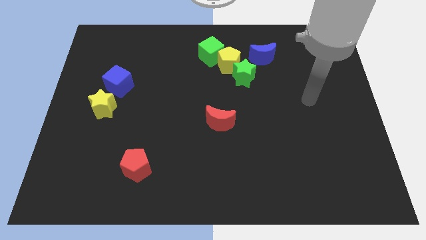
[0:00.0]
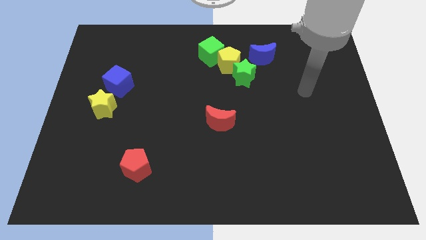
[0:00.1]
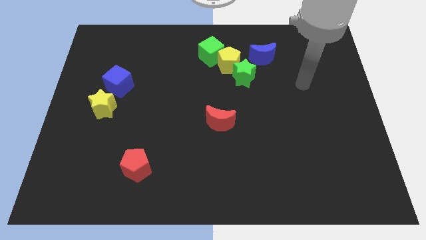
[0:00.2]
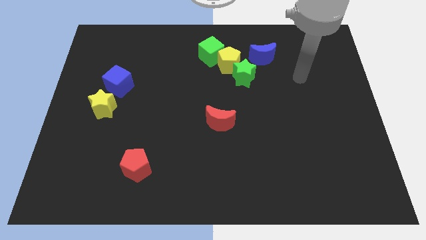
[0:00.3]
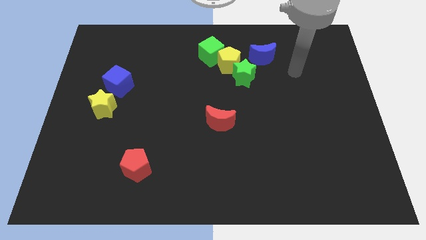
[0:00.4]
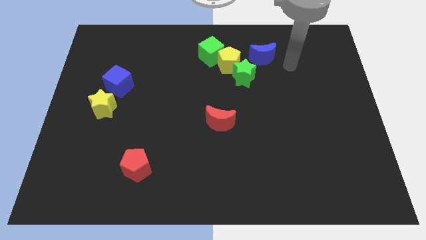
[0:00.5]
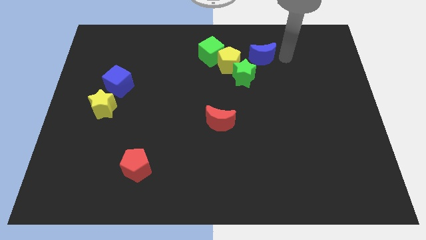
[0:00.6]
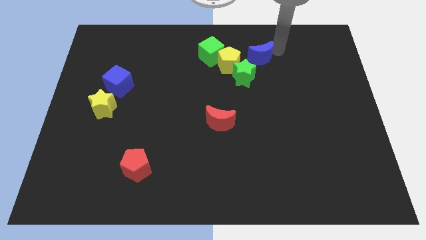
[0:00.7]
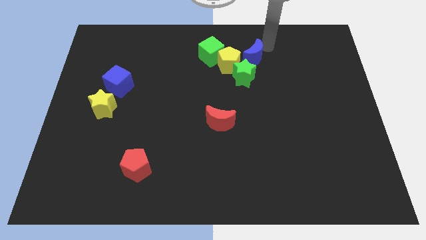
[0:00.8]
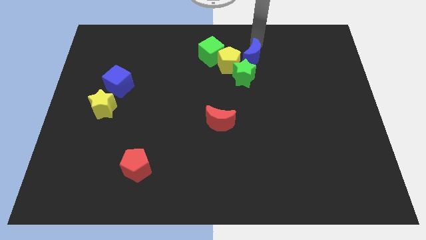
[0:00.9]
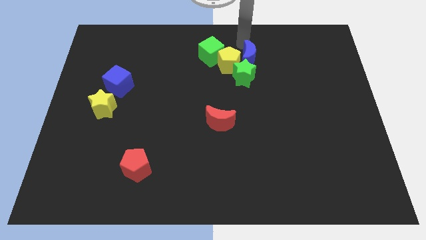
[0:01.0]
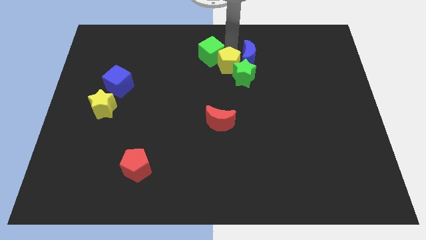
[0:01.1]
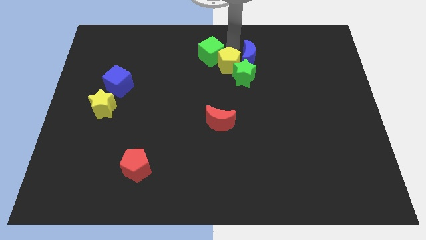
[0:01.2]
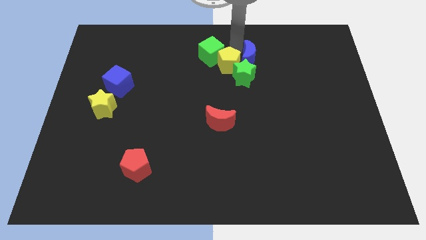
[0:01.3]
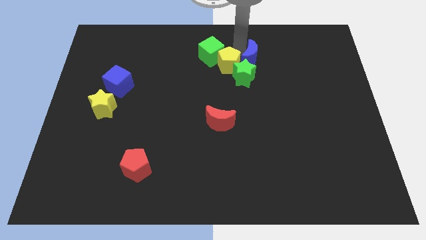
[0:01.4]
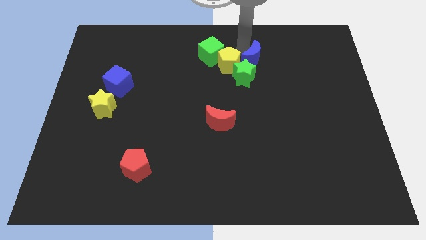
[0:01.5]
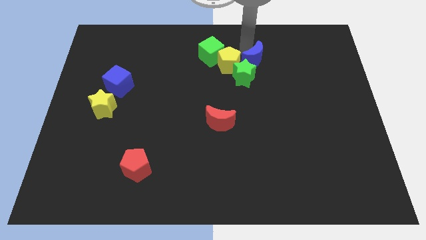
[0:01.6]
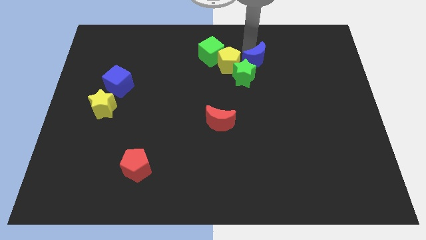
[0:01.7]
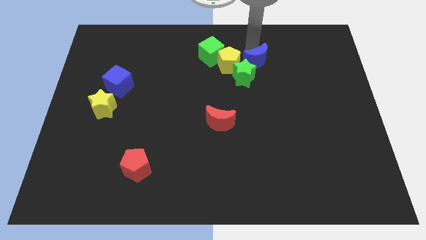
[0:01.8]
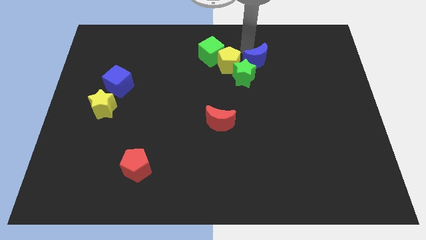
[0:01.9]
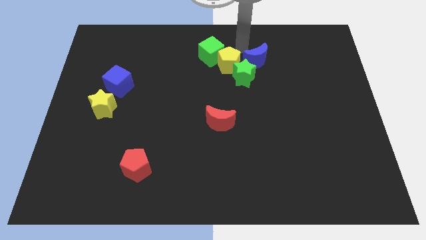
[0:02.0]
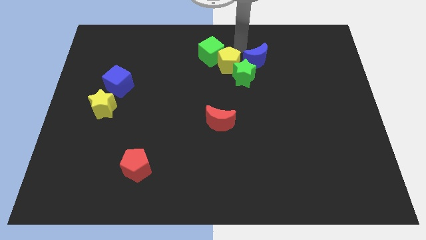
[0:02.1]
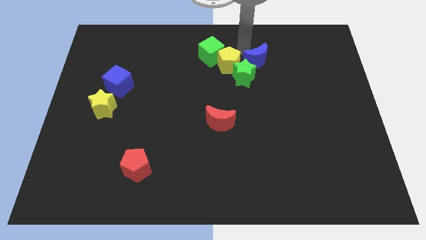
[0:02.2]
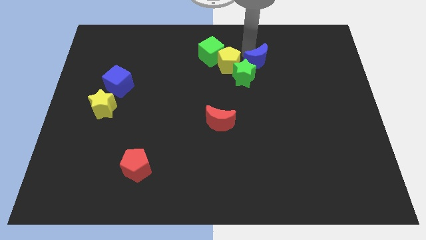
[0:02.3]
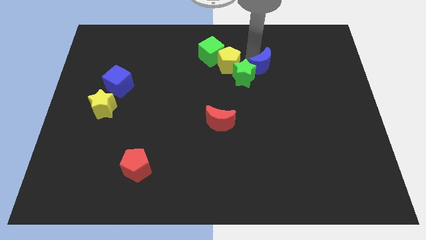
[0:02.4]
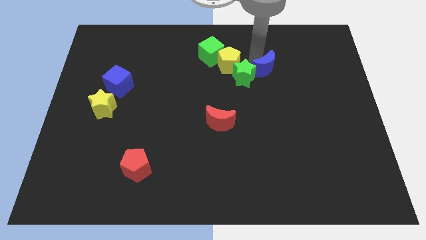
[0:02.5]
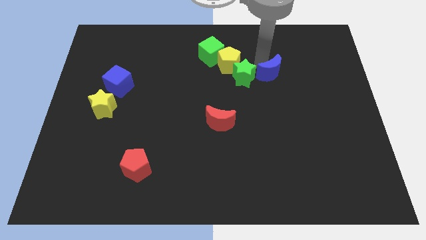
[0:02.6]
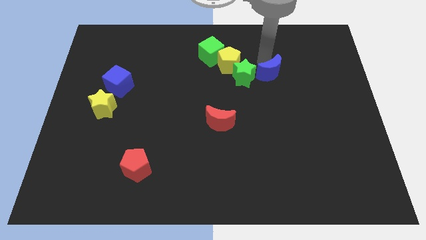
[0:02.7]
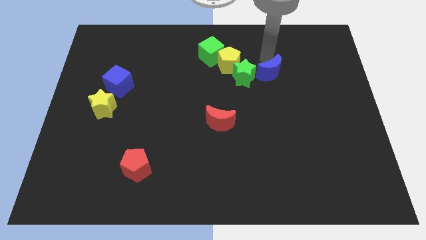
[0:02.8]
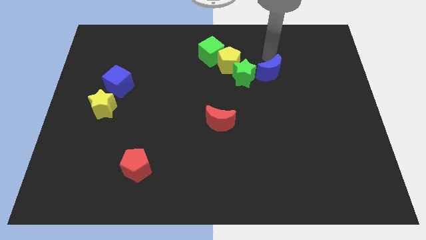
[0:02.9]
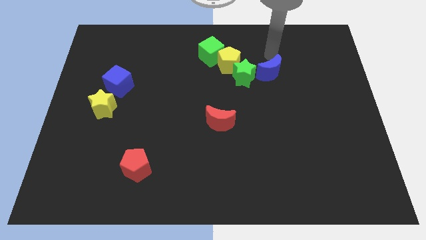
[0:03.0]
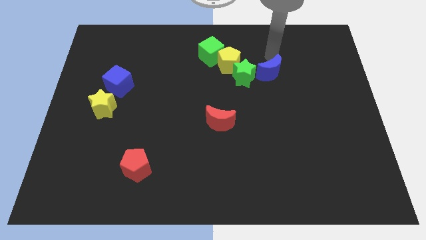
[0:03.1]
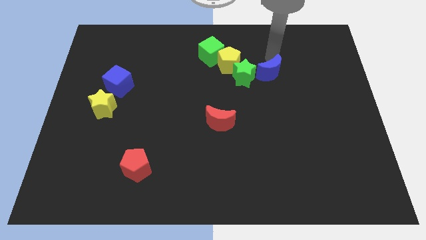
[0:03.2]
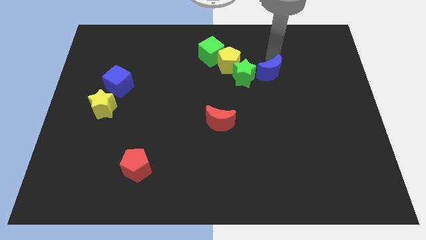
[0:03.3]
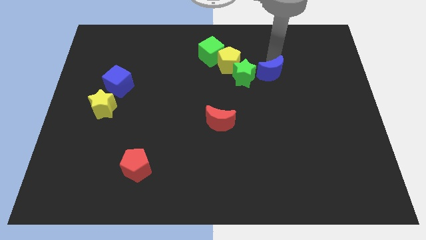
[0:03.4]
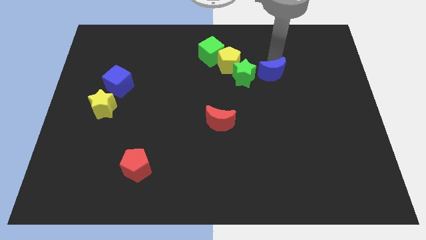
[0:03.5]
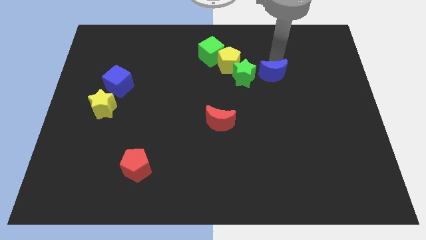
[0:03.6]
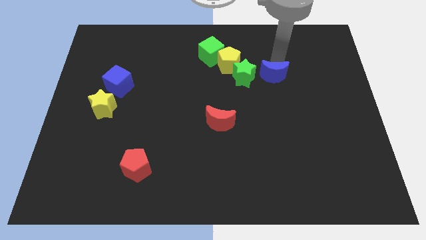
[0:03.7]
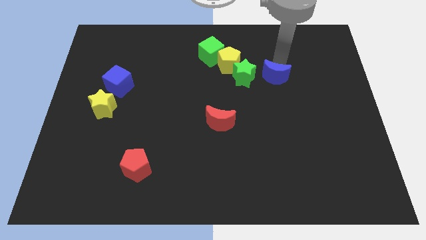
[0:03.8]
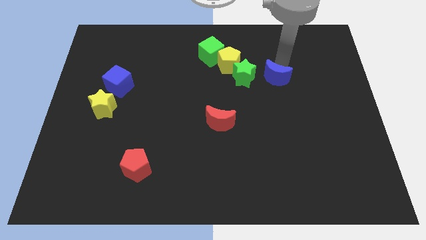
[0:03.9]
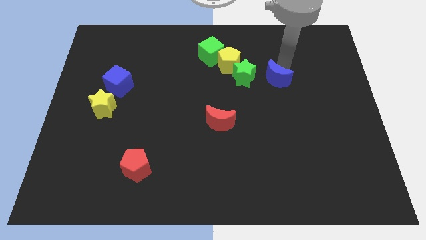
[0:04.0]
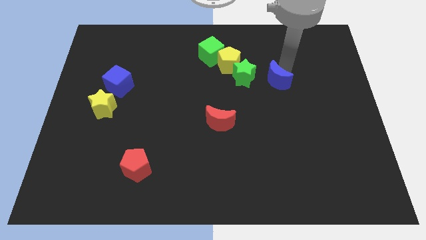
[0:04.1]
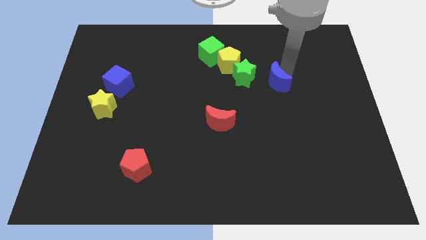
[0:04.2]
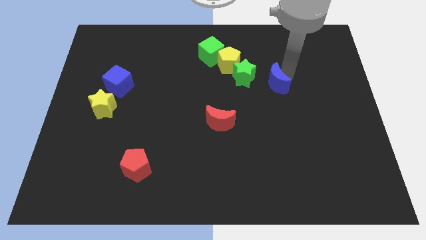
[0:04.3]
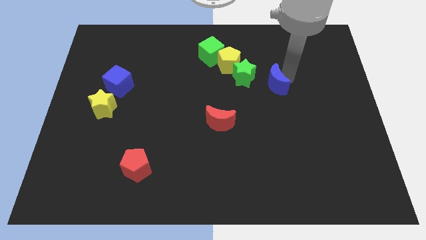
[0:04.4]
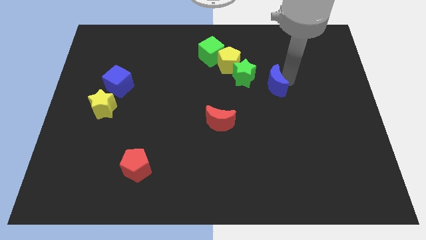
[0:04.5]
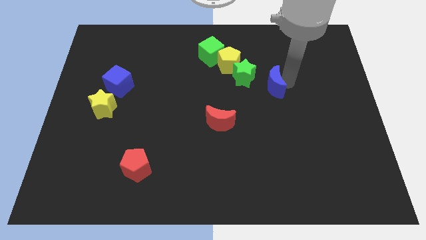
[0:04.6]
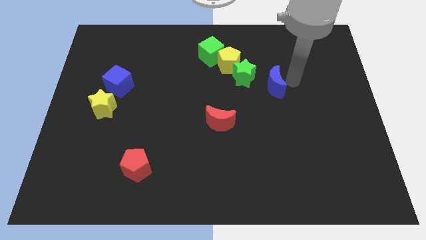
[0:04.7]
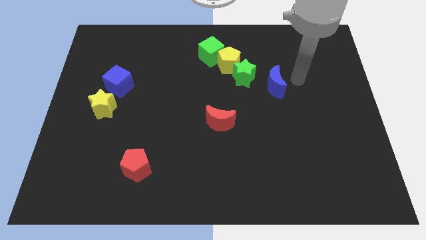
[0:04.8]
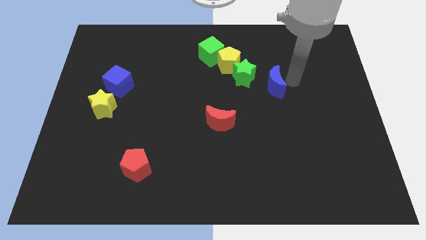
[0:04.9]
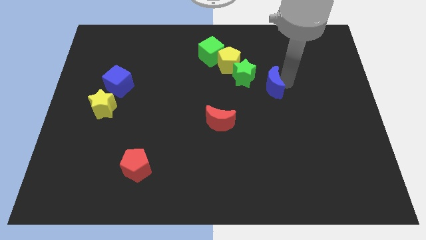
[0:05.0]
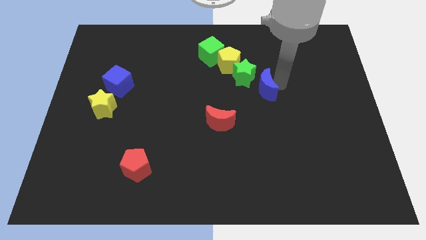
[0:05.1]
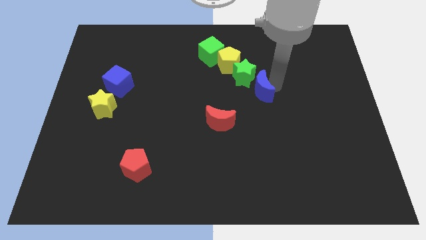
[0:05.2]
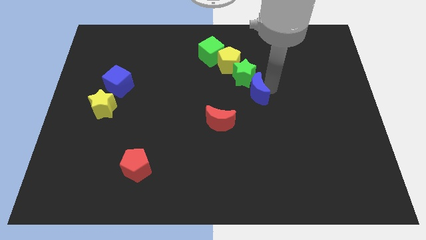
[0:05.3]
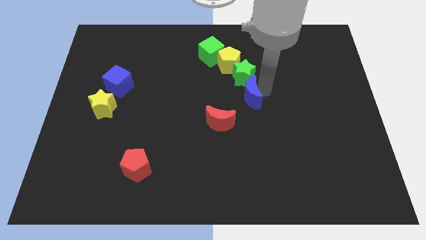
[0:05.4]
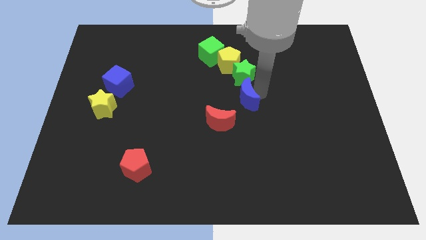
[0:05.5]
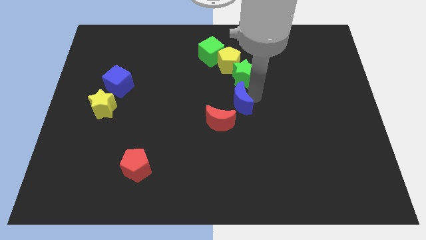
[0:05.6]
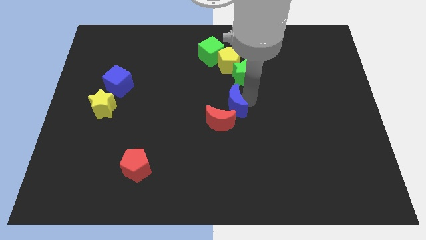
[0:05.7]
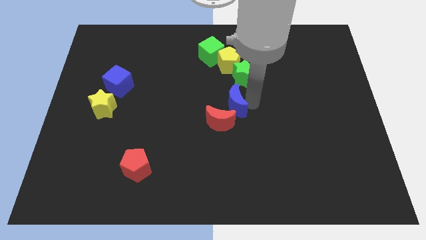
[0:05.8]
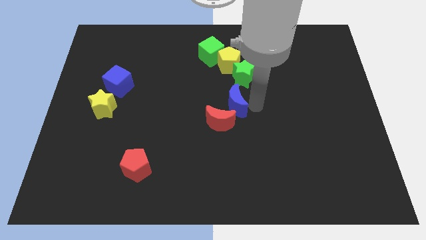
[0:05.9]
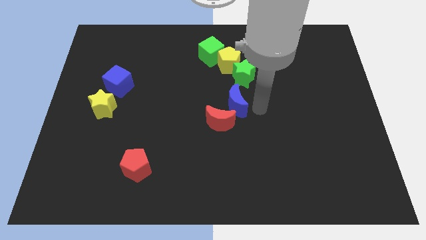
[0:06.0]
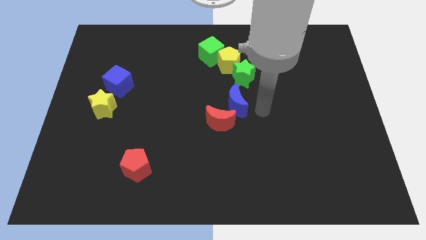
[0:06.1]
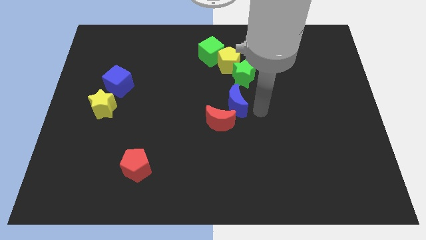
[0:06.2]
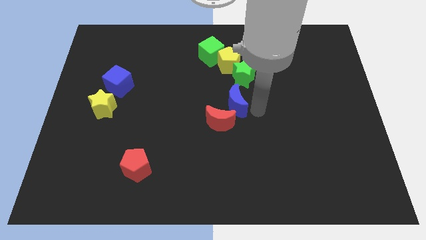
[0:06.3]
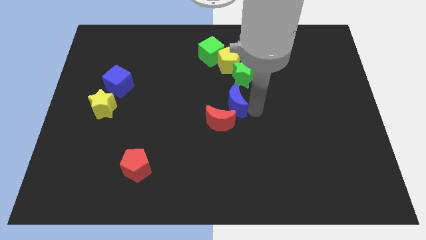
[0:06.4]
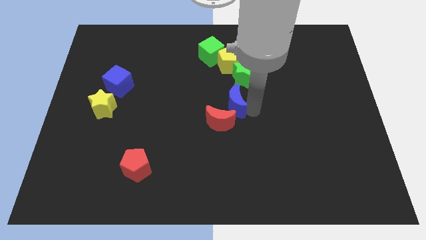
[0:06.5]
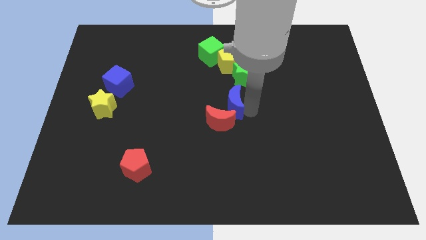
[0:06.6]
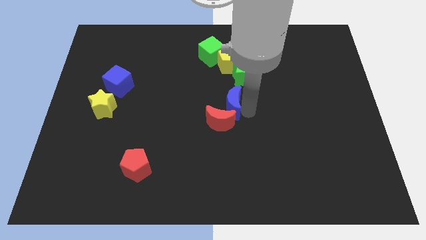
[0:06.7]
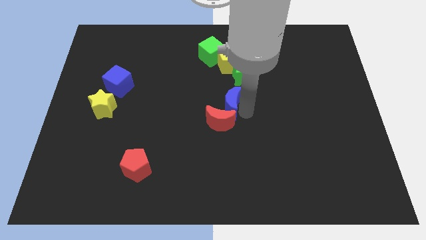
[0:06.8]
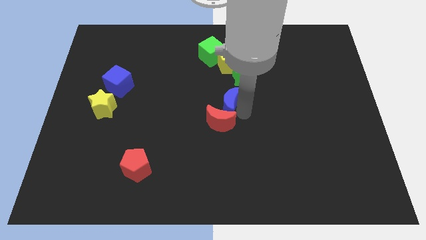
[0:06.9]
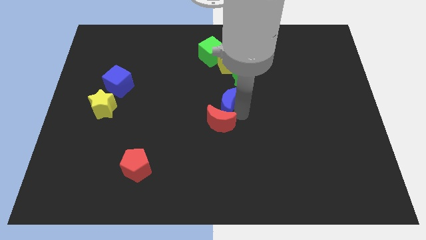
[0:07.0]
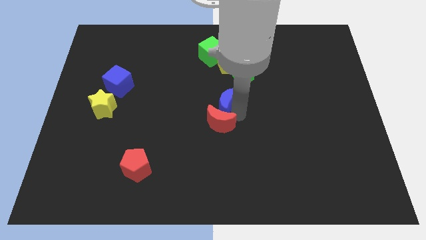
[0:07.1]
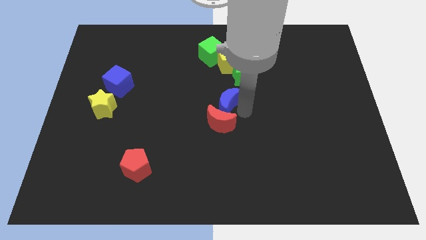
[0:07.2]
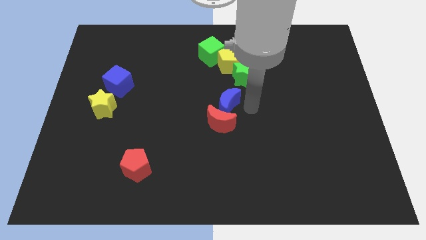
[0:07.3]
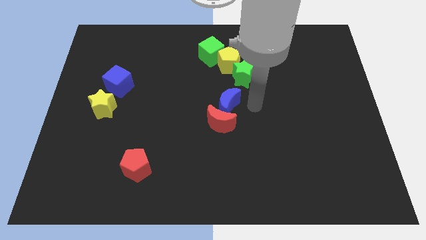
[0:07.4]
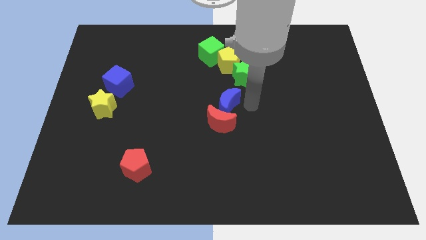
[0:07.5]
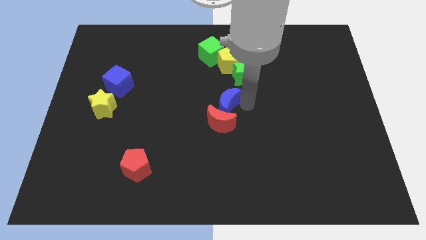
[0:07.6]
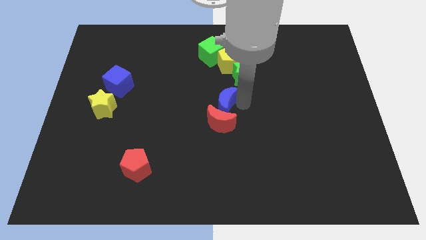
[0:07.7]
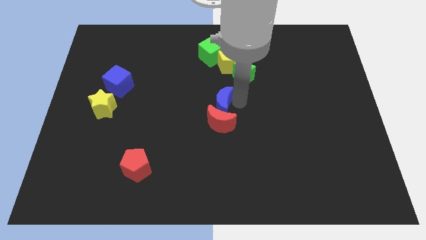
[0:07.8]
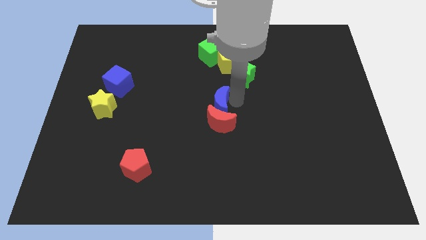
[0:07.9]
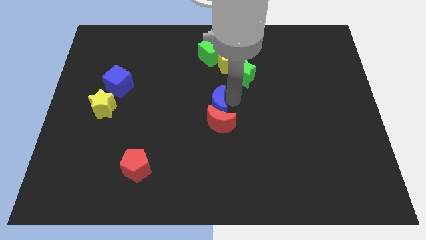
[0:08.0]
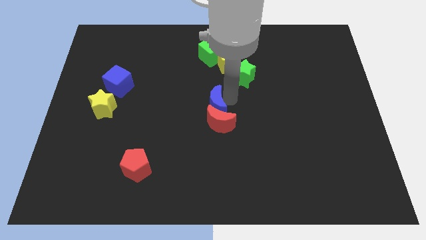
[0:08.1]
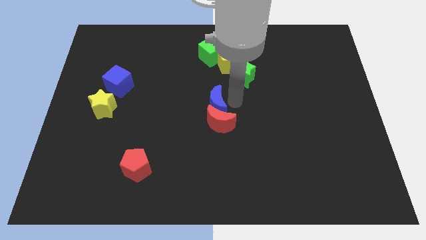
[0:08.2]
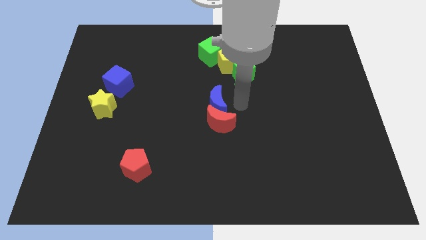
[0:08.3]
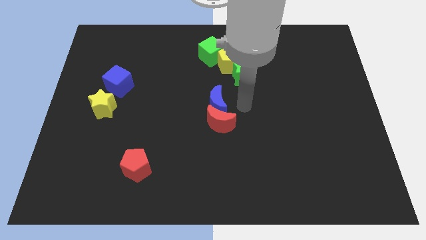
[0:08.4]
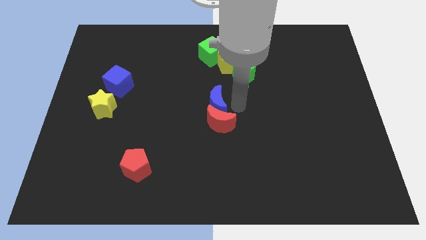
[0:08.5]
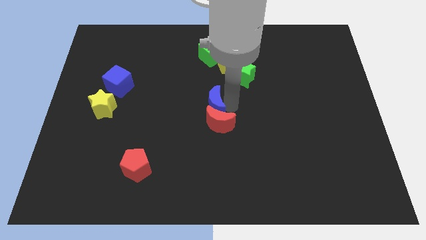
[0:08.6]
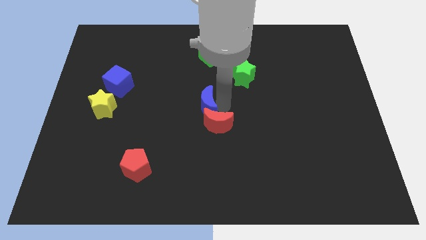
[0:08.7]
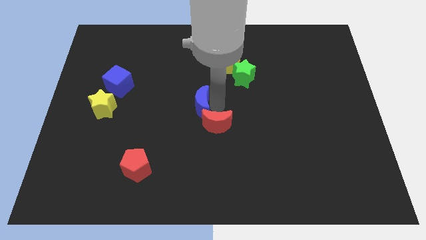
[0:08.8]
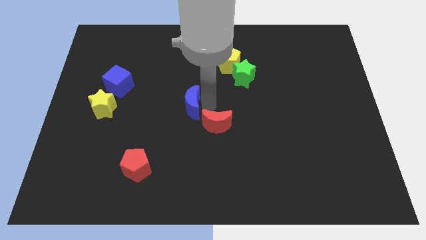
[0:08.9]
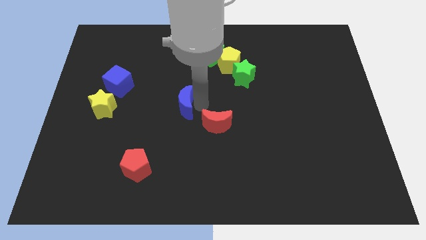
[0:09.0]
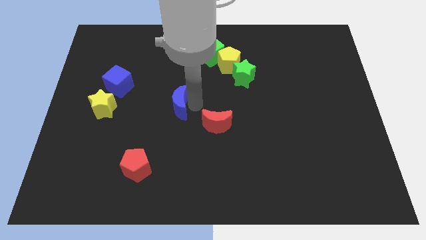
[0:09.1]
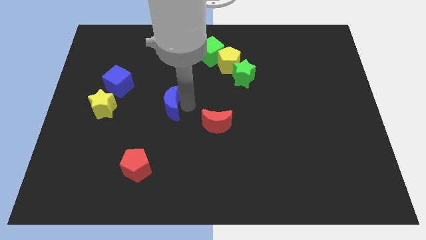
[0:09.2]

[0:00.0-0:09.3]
move the blue moon just right of the yellow star
